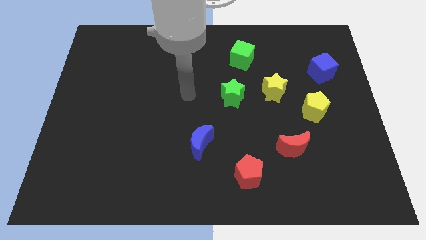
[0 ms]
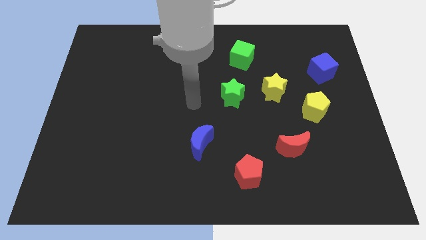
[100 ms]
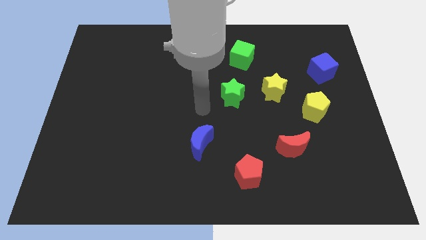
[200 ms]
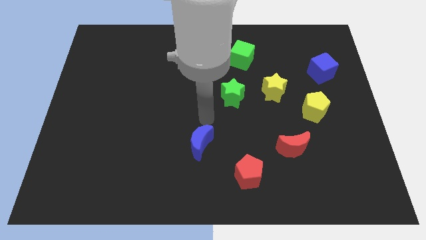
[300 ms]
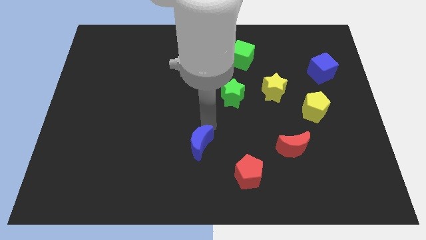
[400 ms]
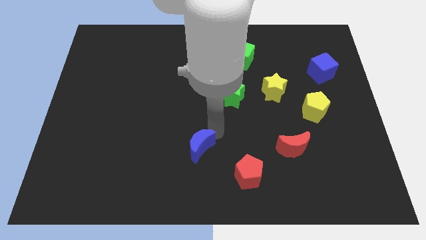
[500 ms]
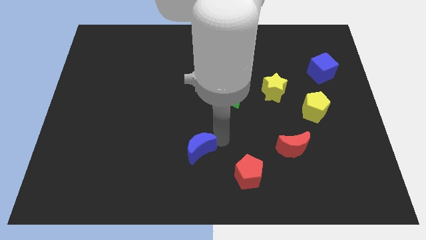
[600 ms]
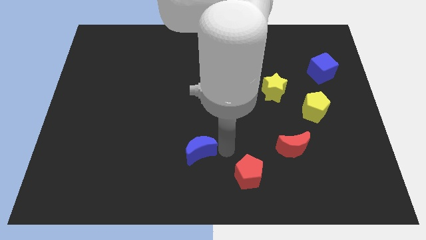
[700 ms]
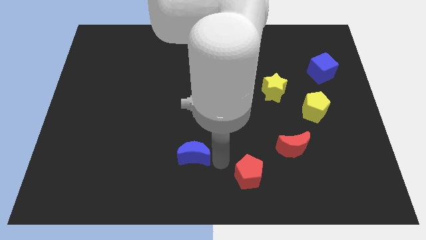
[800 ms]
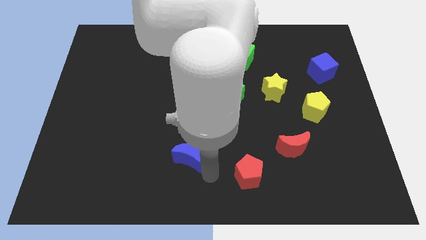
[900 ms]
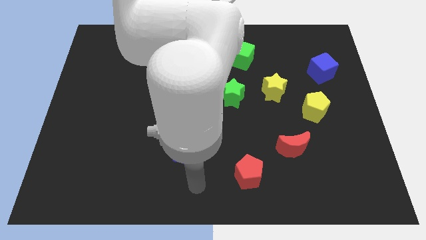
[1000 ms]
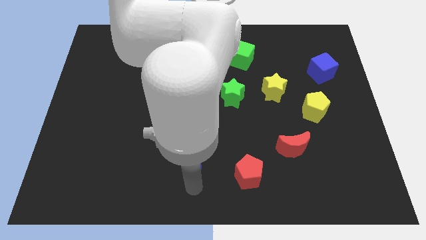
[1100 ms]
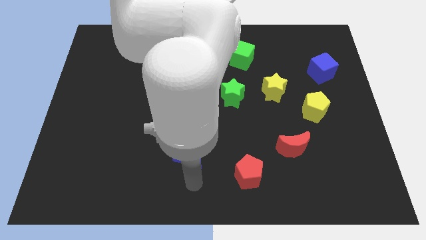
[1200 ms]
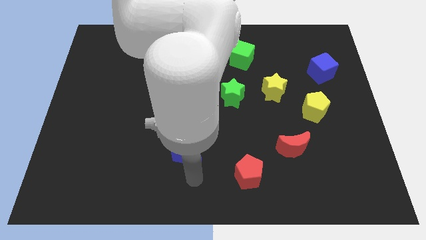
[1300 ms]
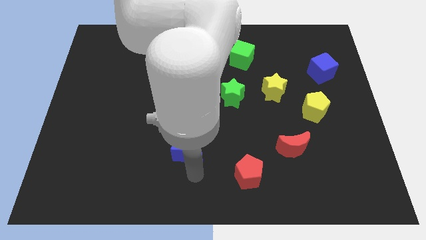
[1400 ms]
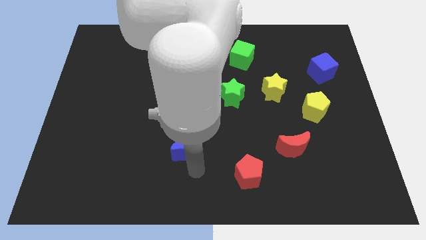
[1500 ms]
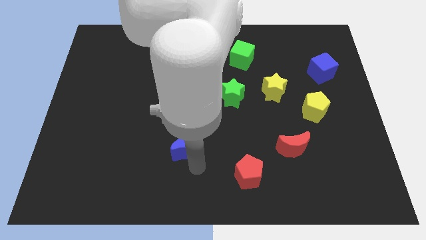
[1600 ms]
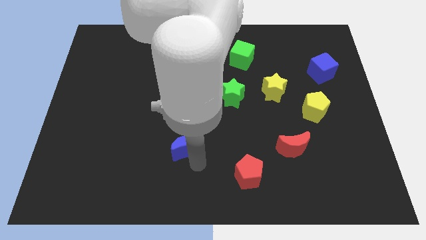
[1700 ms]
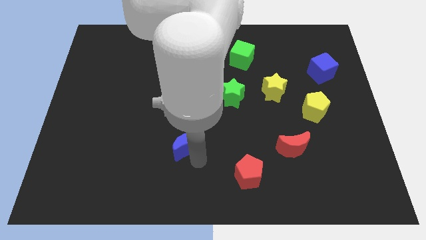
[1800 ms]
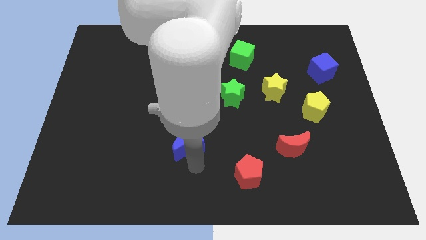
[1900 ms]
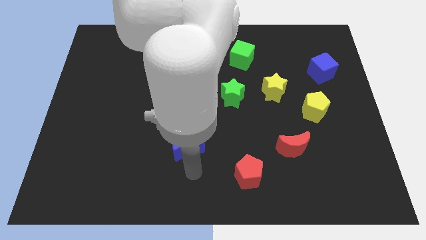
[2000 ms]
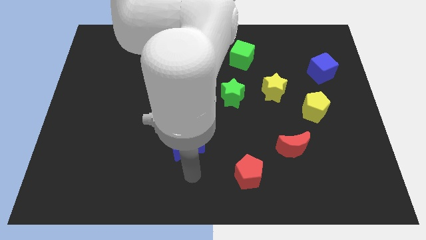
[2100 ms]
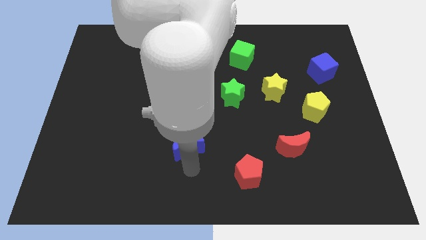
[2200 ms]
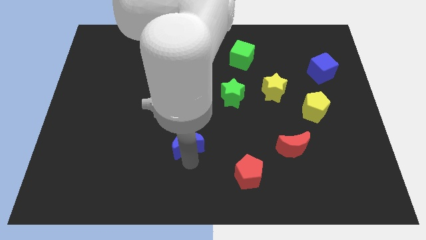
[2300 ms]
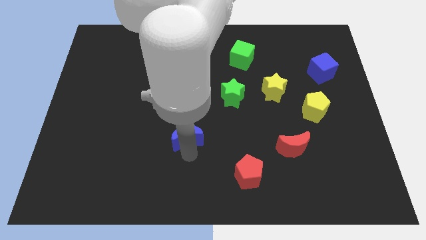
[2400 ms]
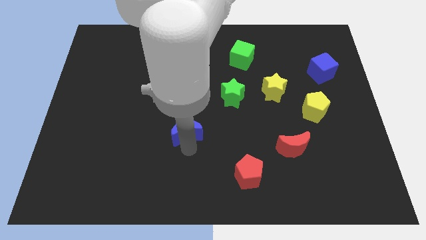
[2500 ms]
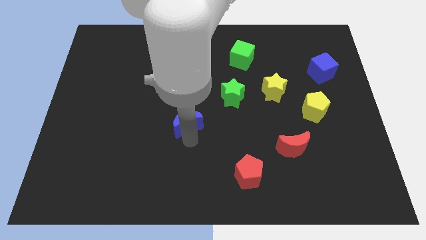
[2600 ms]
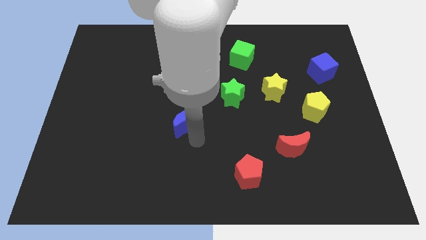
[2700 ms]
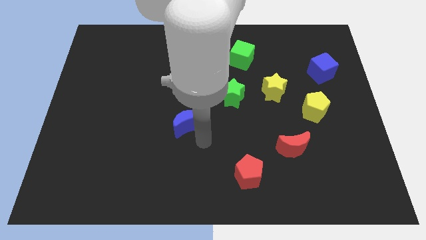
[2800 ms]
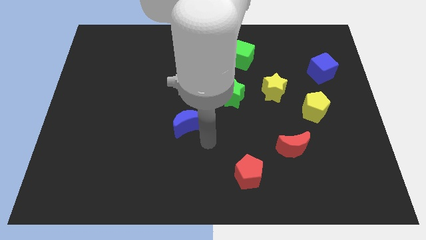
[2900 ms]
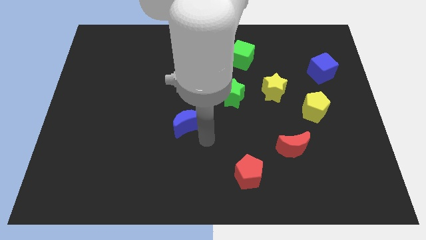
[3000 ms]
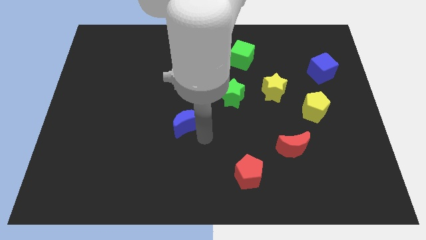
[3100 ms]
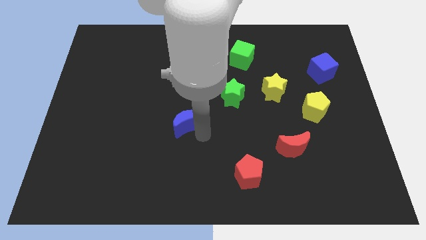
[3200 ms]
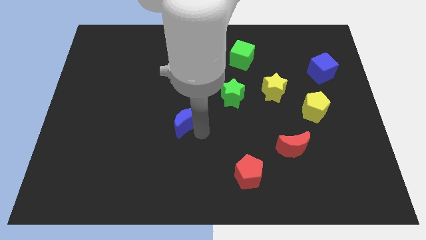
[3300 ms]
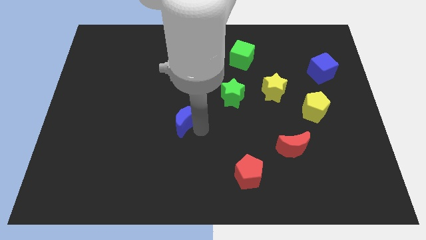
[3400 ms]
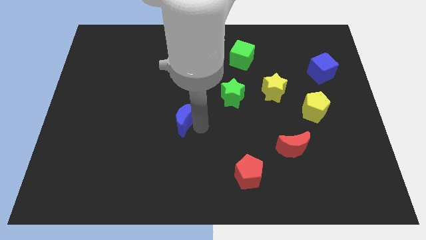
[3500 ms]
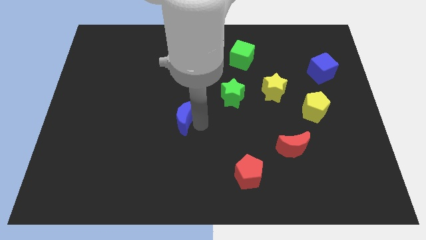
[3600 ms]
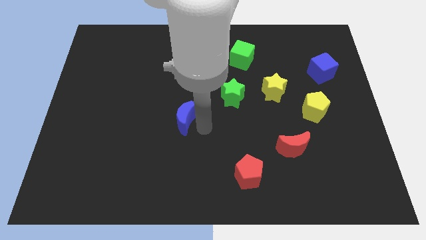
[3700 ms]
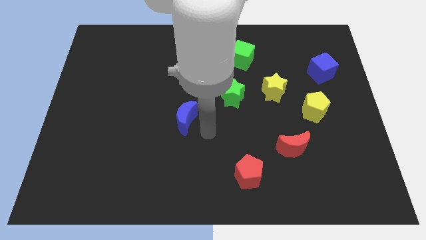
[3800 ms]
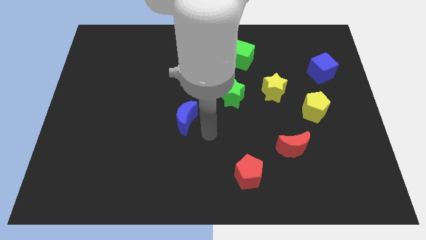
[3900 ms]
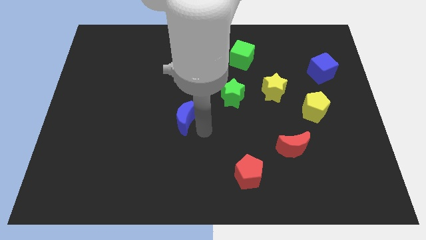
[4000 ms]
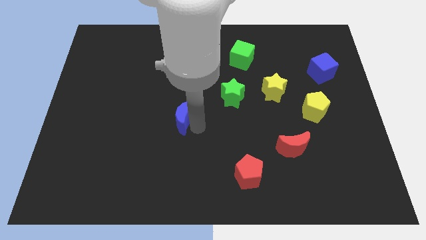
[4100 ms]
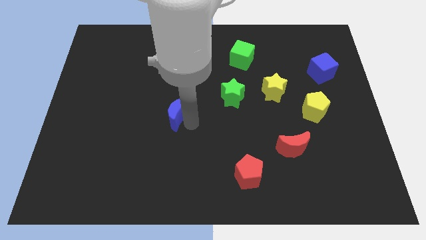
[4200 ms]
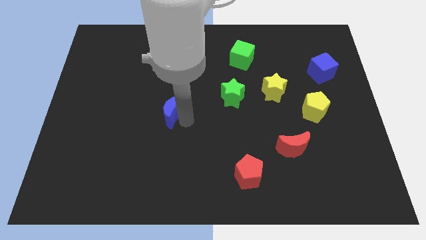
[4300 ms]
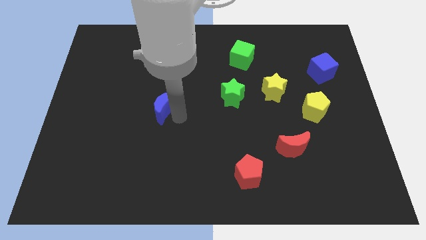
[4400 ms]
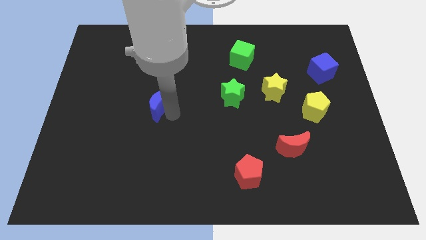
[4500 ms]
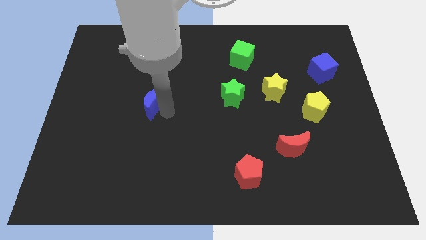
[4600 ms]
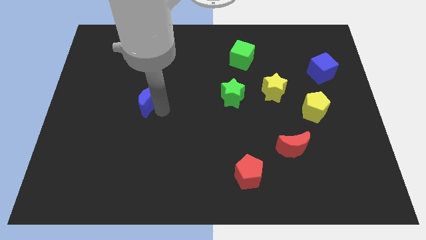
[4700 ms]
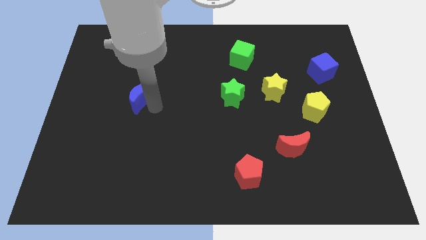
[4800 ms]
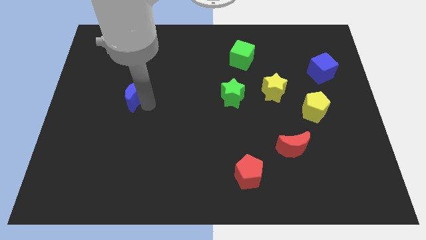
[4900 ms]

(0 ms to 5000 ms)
slide the blue moon up and to the left diagonally

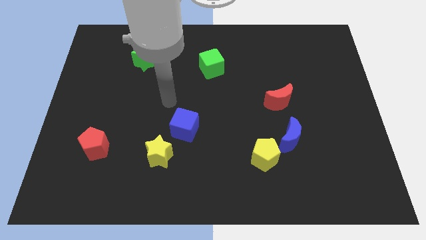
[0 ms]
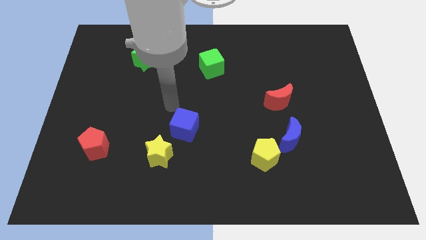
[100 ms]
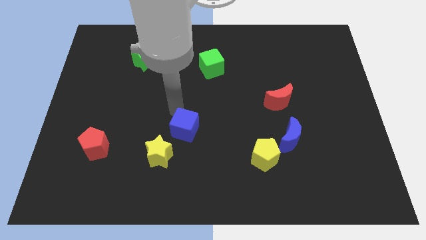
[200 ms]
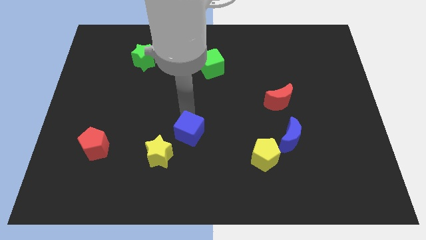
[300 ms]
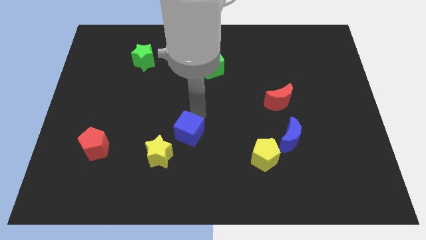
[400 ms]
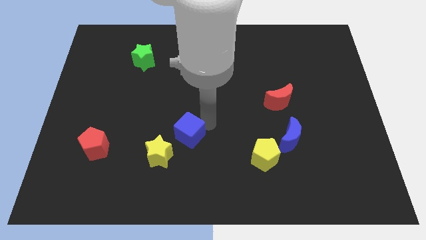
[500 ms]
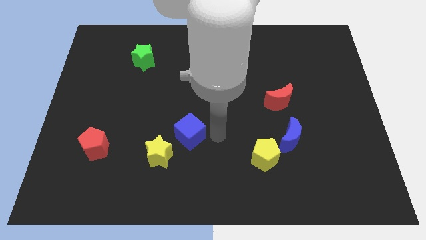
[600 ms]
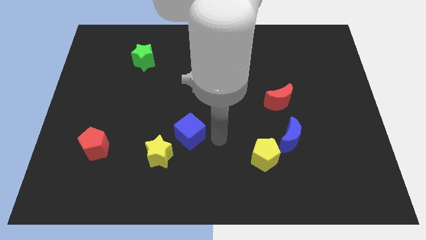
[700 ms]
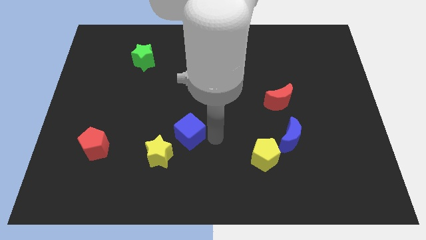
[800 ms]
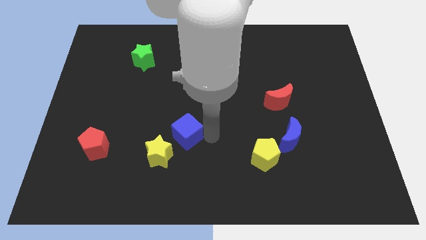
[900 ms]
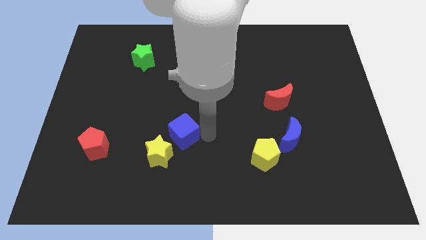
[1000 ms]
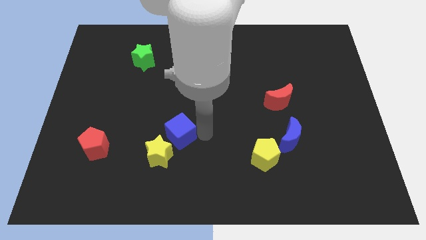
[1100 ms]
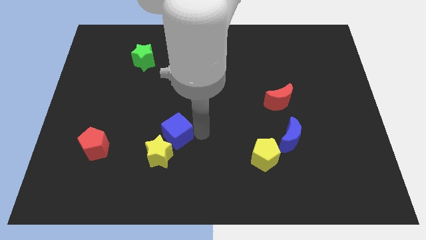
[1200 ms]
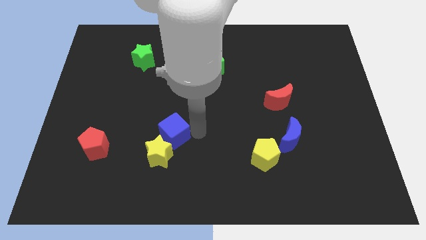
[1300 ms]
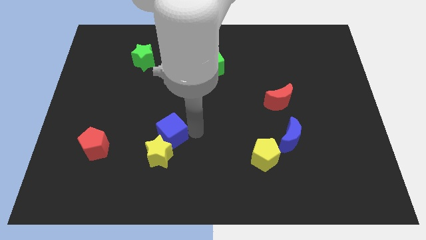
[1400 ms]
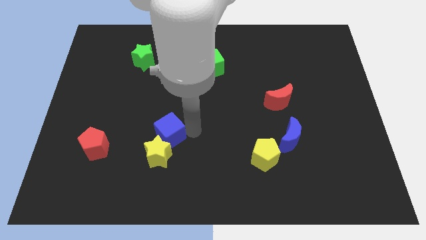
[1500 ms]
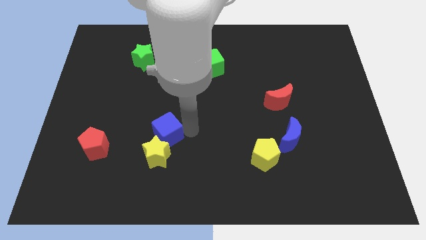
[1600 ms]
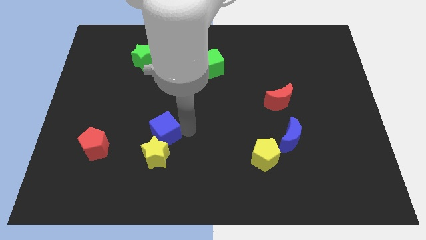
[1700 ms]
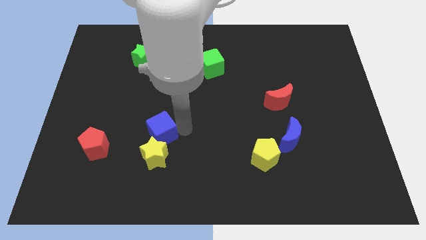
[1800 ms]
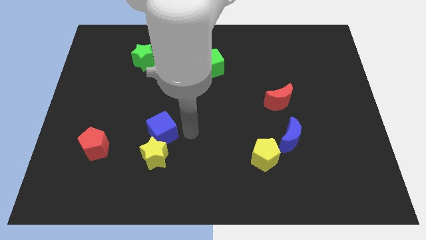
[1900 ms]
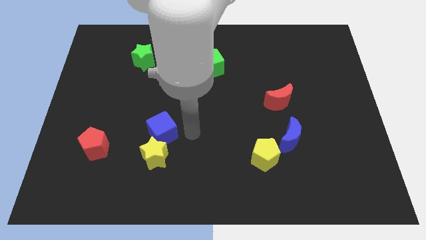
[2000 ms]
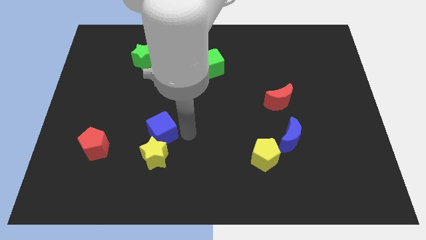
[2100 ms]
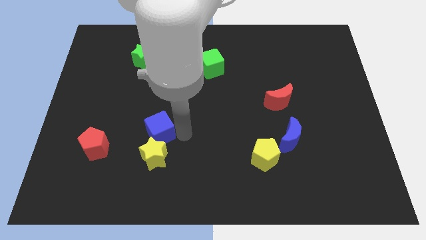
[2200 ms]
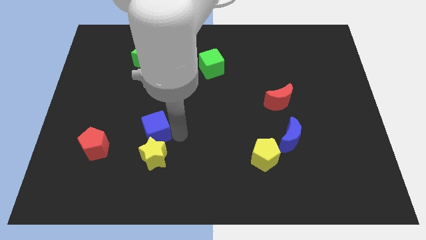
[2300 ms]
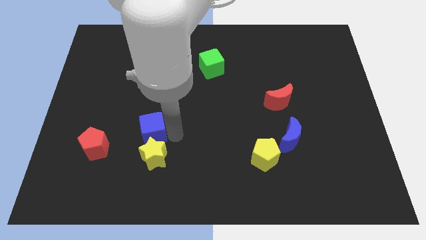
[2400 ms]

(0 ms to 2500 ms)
slide the blue cube to the left slightly
